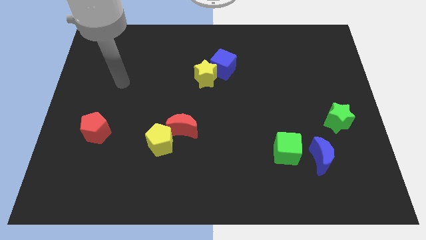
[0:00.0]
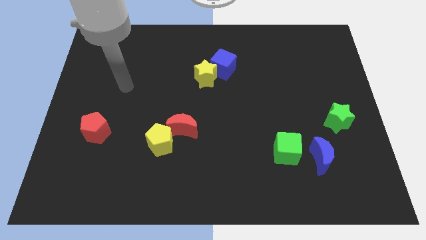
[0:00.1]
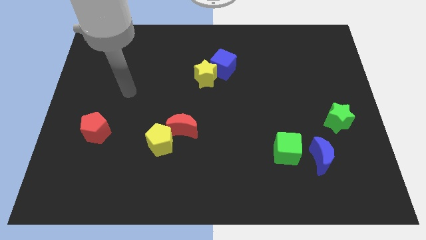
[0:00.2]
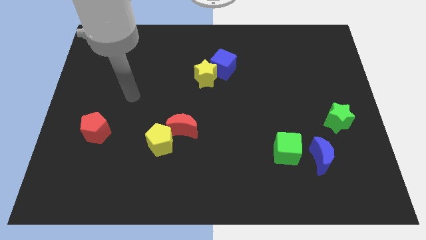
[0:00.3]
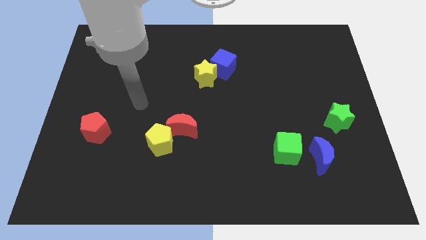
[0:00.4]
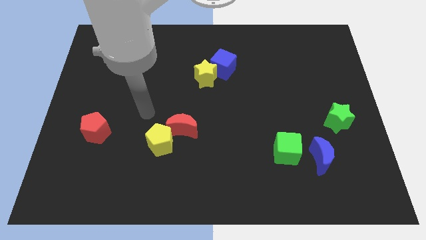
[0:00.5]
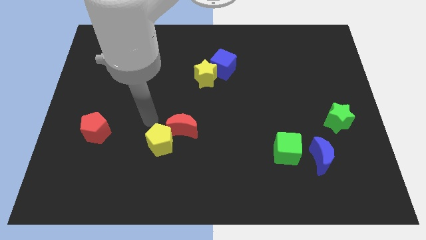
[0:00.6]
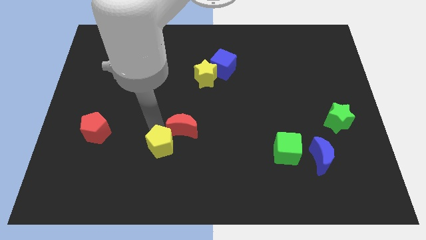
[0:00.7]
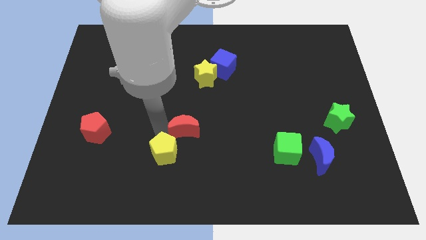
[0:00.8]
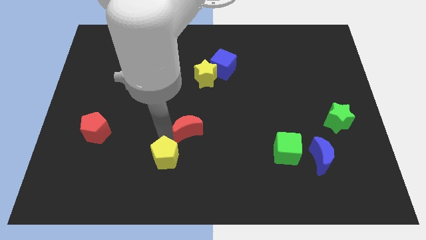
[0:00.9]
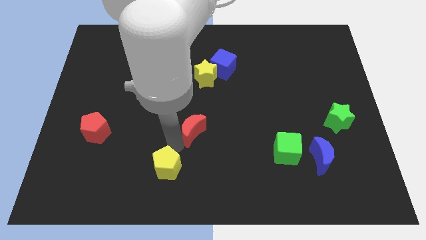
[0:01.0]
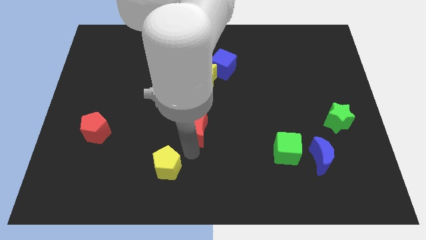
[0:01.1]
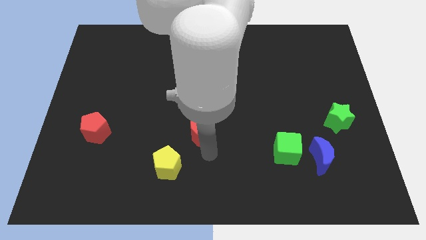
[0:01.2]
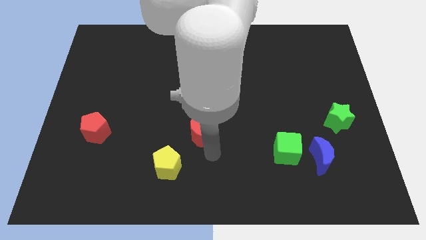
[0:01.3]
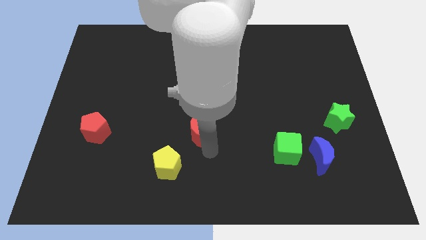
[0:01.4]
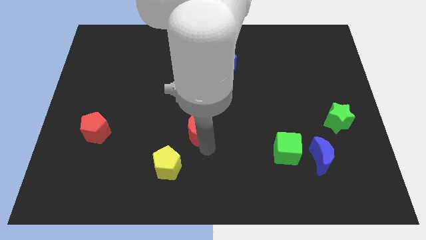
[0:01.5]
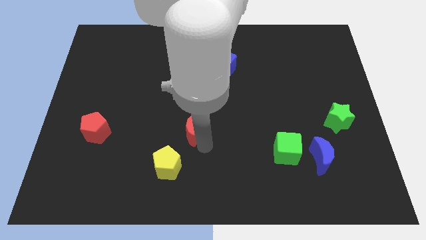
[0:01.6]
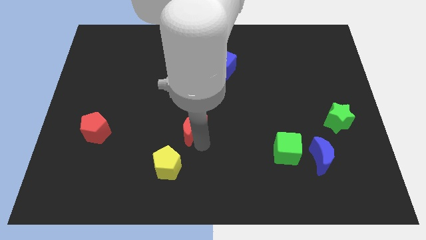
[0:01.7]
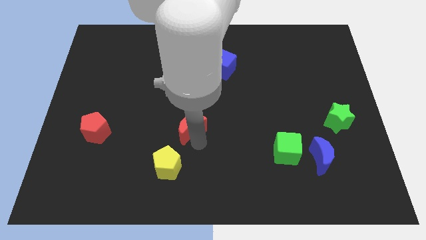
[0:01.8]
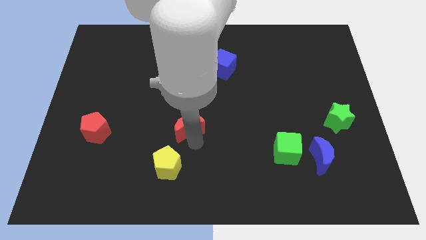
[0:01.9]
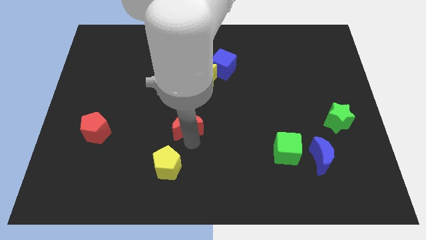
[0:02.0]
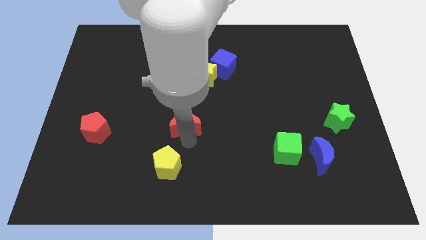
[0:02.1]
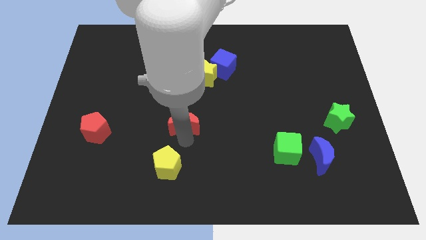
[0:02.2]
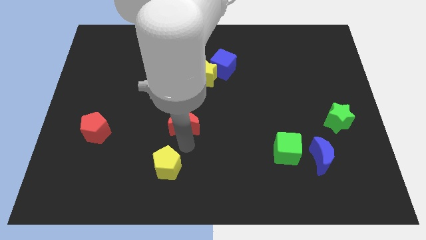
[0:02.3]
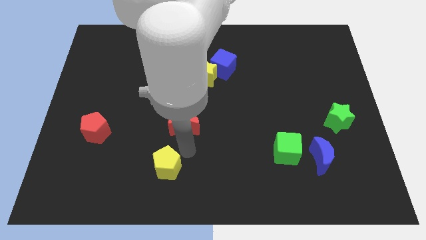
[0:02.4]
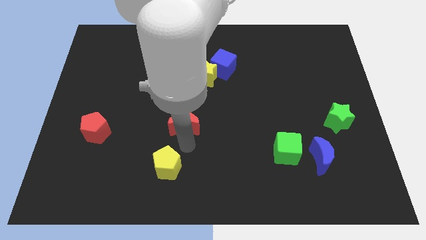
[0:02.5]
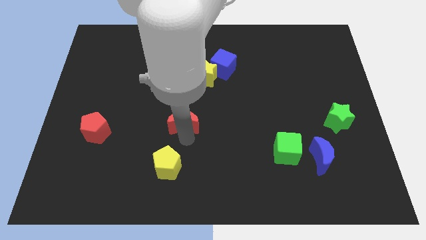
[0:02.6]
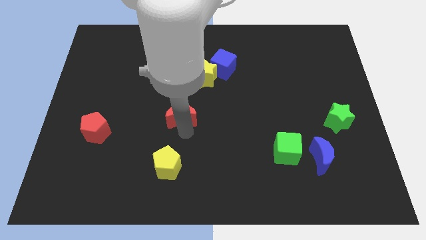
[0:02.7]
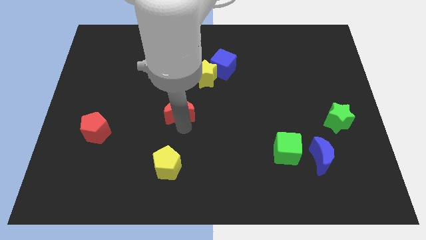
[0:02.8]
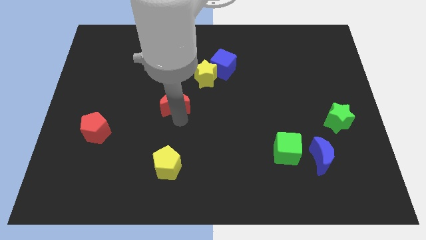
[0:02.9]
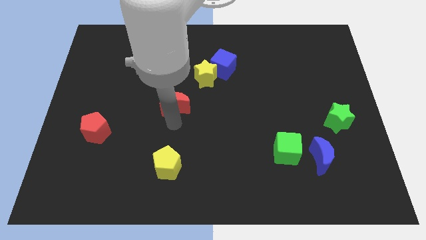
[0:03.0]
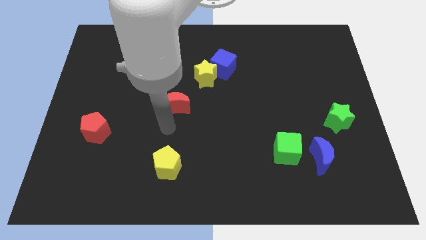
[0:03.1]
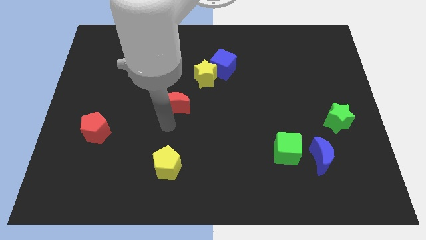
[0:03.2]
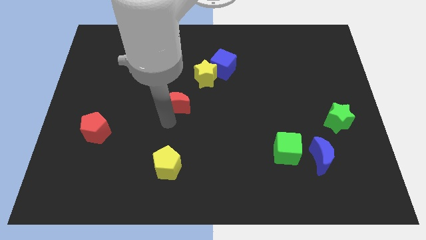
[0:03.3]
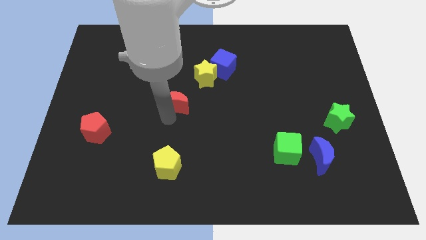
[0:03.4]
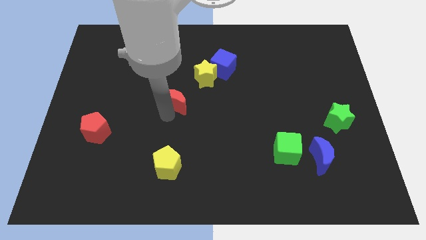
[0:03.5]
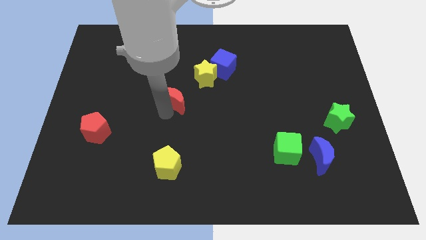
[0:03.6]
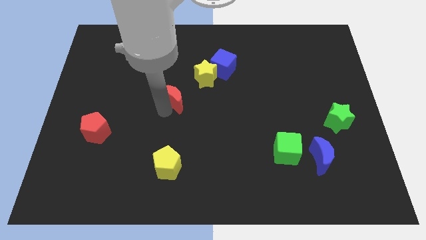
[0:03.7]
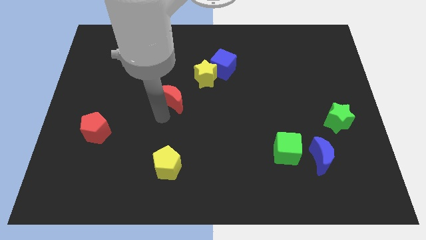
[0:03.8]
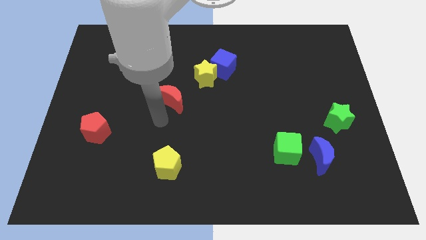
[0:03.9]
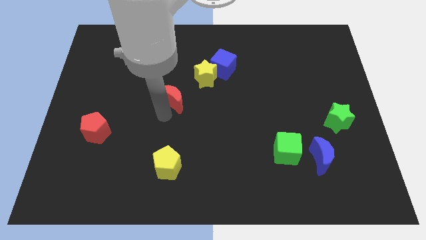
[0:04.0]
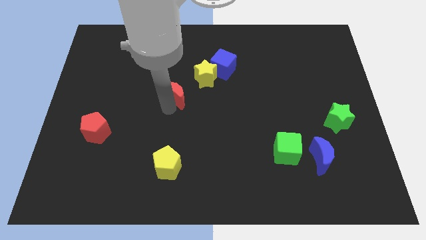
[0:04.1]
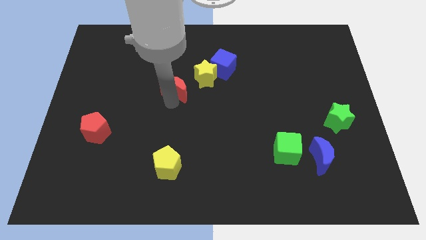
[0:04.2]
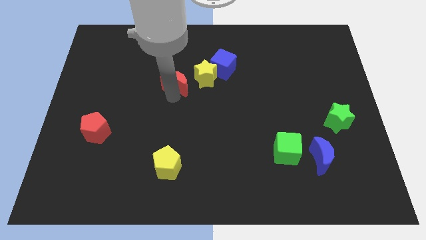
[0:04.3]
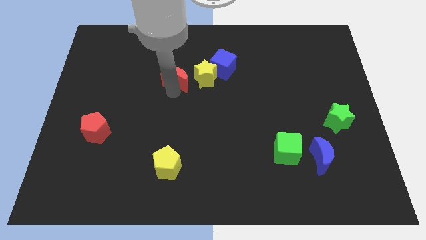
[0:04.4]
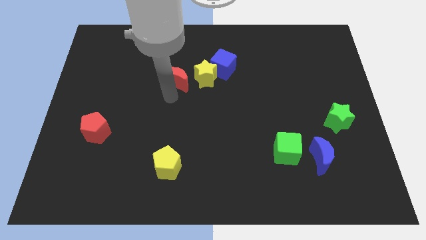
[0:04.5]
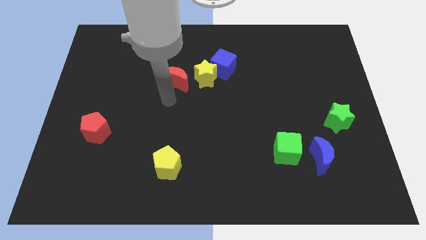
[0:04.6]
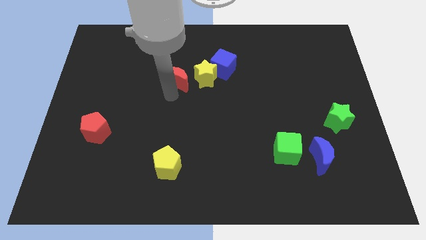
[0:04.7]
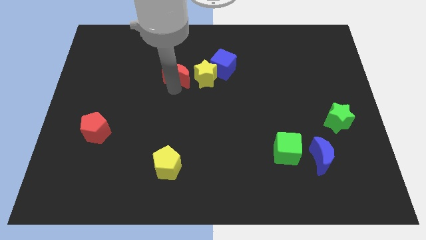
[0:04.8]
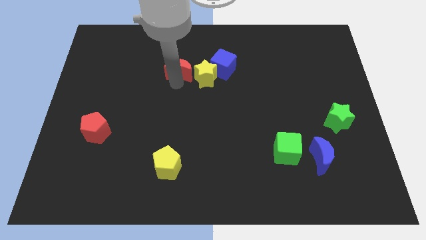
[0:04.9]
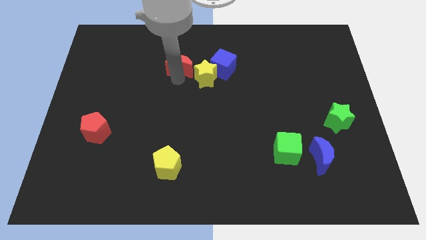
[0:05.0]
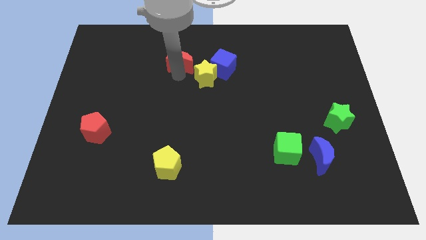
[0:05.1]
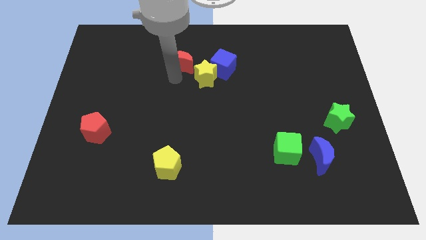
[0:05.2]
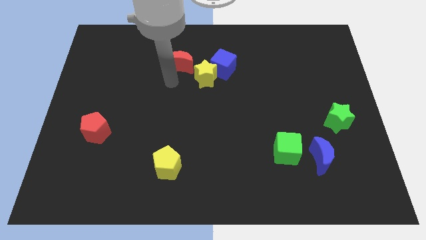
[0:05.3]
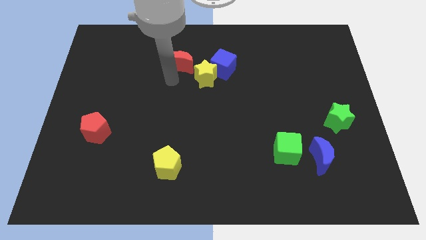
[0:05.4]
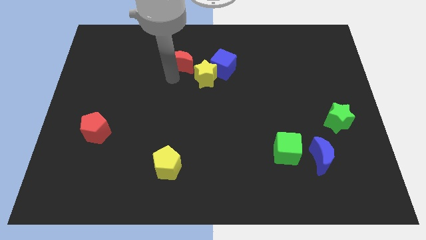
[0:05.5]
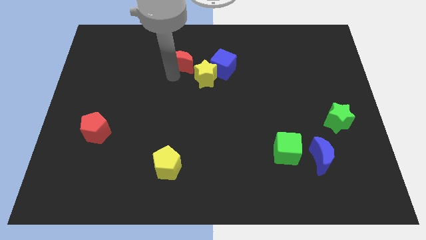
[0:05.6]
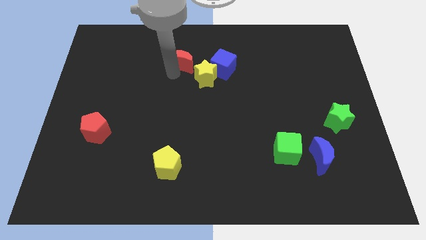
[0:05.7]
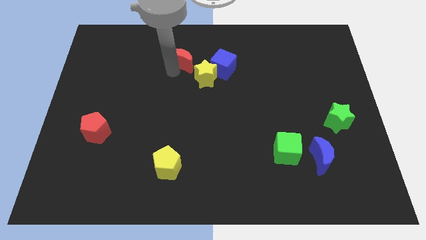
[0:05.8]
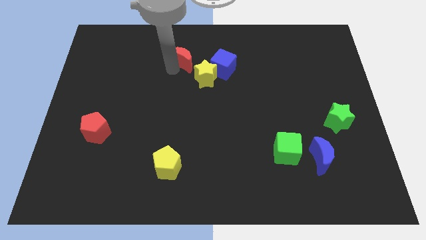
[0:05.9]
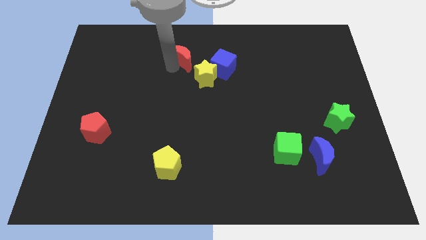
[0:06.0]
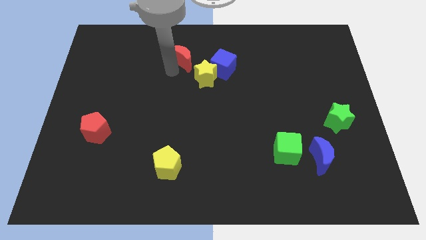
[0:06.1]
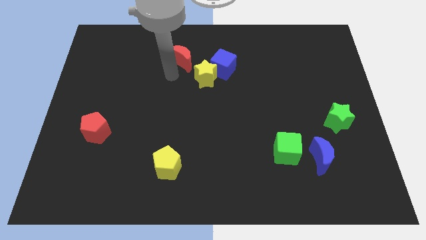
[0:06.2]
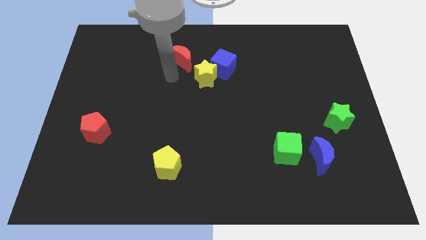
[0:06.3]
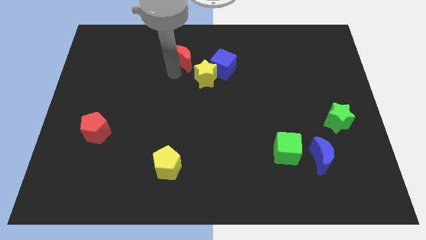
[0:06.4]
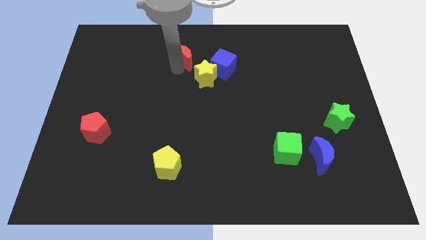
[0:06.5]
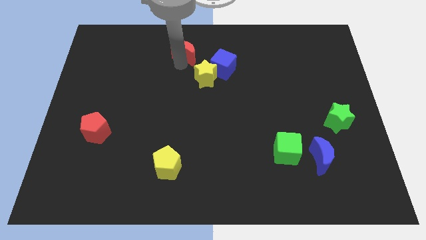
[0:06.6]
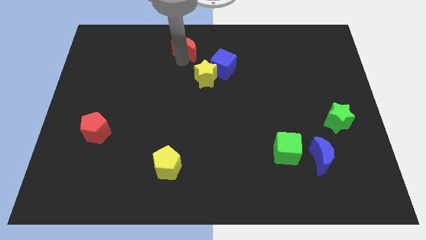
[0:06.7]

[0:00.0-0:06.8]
slide the red moon to the top
